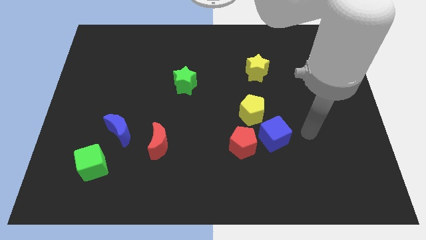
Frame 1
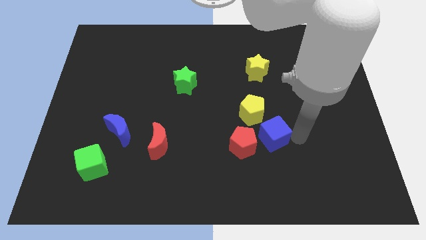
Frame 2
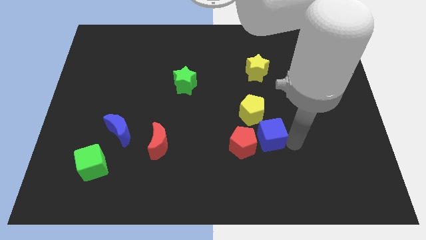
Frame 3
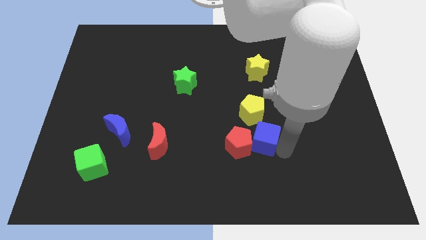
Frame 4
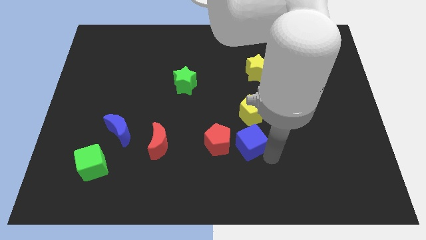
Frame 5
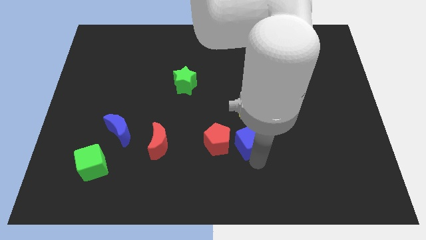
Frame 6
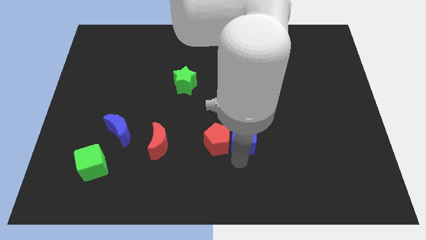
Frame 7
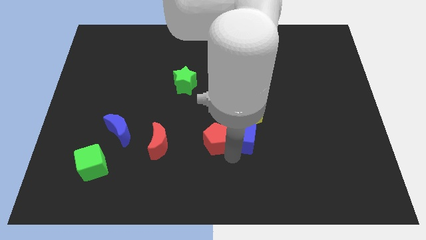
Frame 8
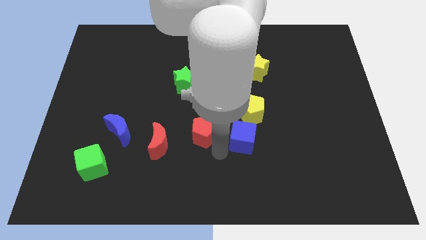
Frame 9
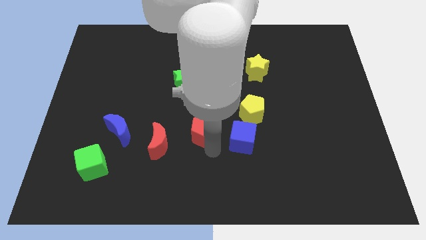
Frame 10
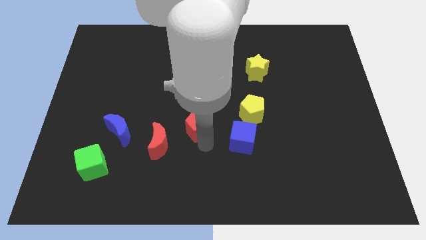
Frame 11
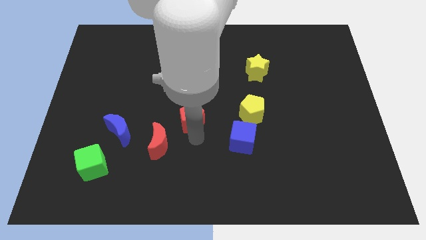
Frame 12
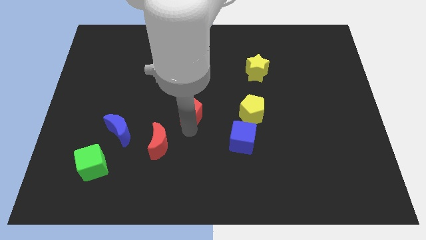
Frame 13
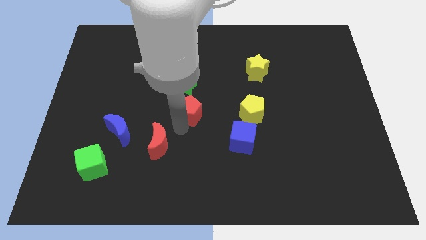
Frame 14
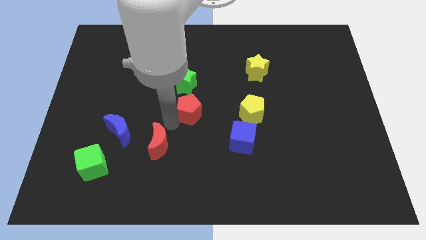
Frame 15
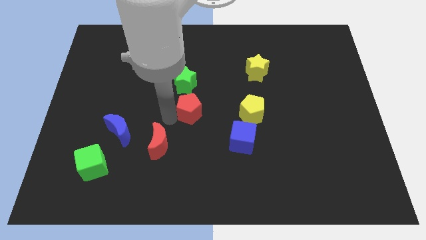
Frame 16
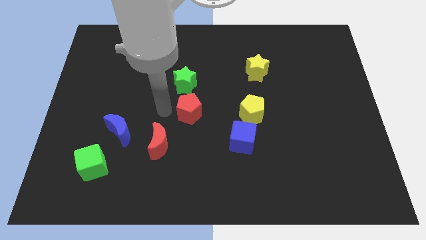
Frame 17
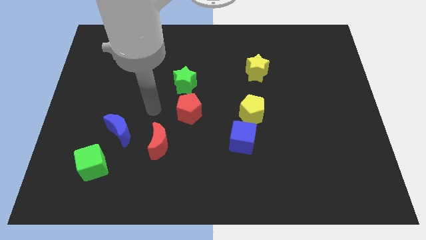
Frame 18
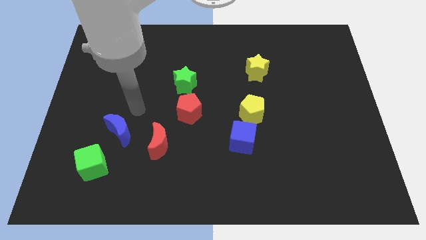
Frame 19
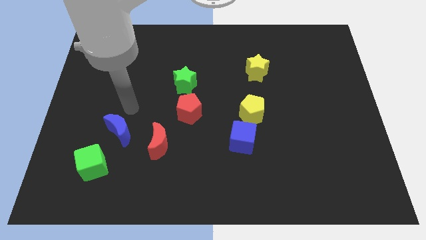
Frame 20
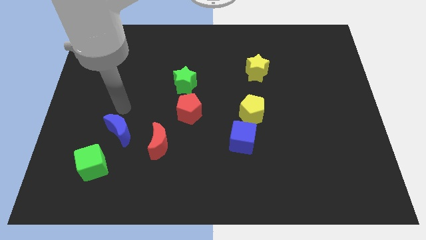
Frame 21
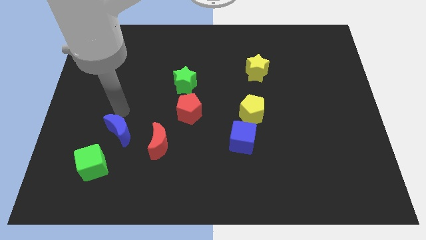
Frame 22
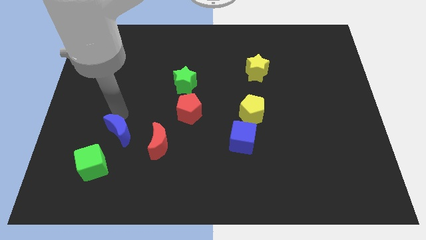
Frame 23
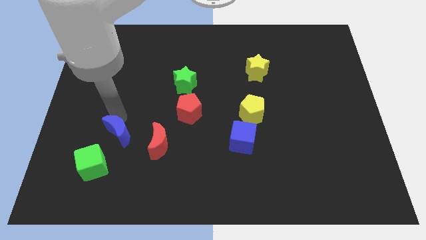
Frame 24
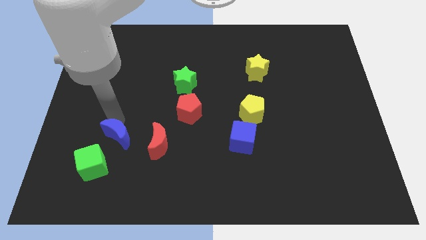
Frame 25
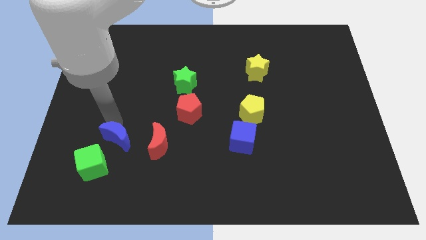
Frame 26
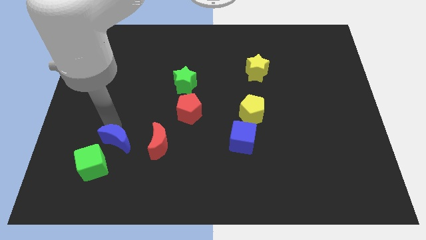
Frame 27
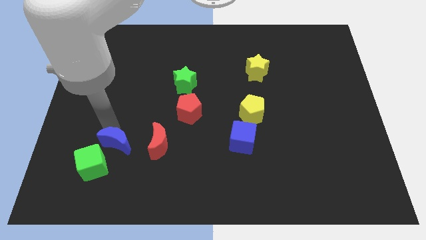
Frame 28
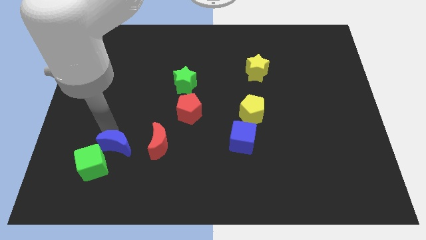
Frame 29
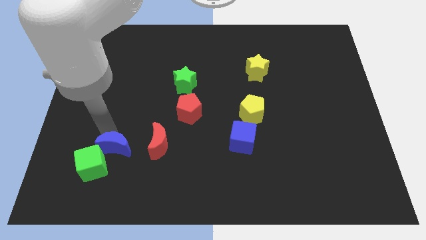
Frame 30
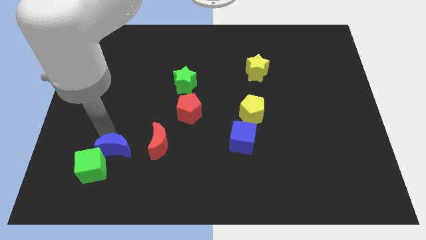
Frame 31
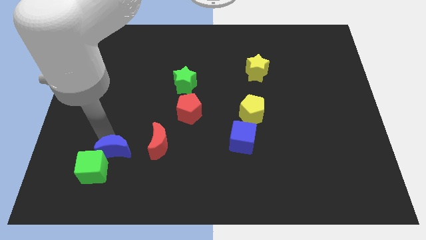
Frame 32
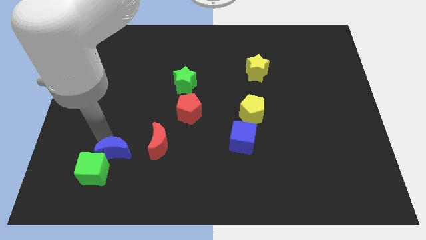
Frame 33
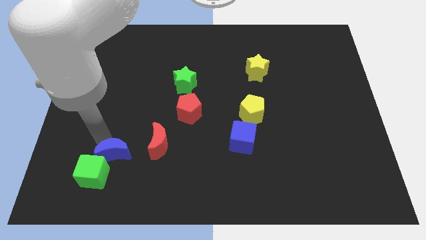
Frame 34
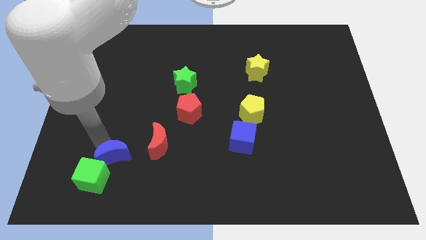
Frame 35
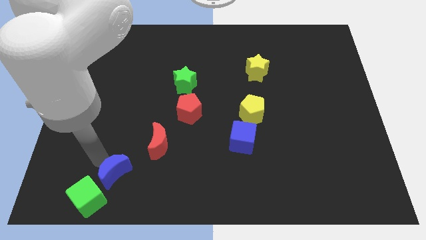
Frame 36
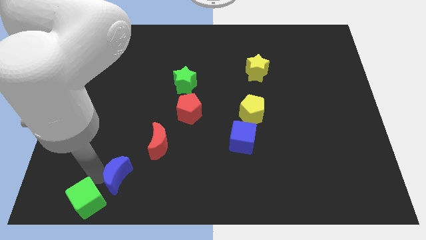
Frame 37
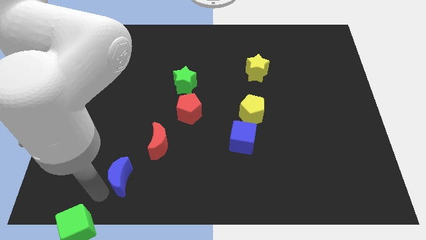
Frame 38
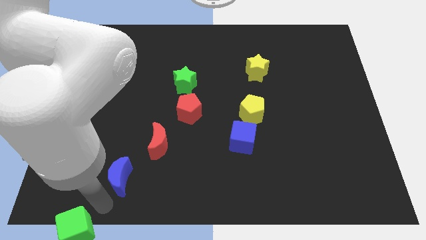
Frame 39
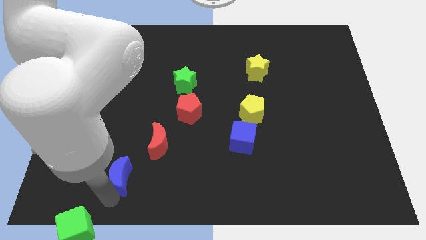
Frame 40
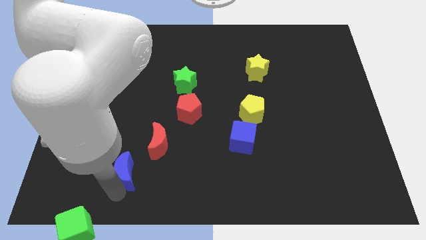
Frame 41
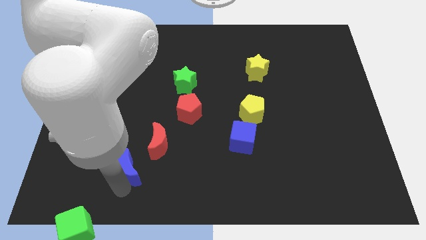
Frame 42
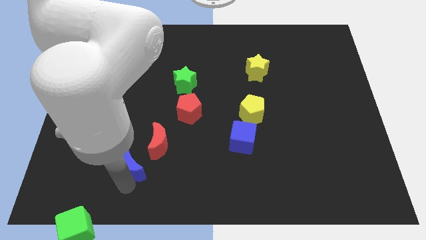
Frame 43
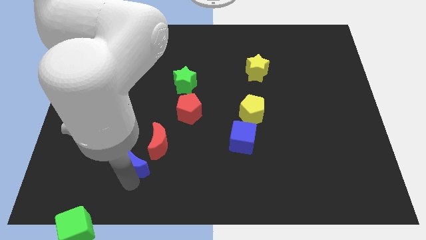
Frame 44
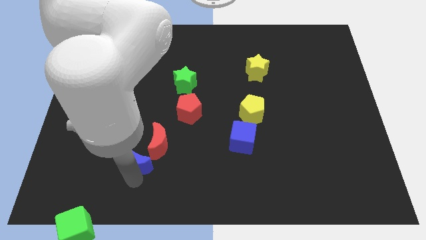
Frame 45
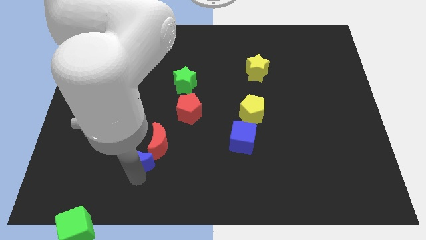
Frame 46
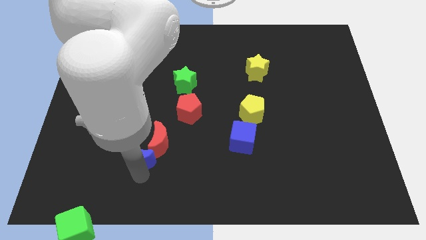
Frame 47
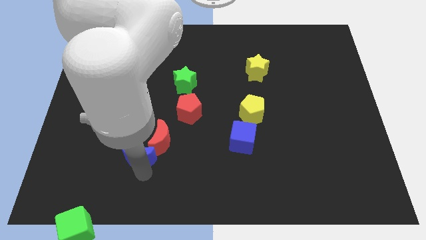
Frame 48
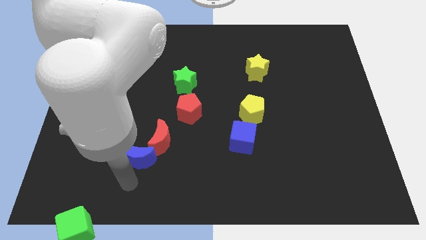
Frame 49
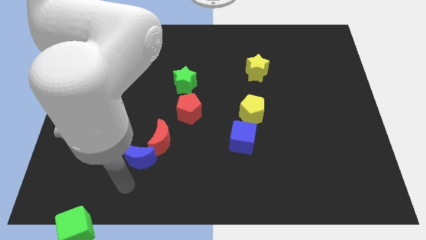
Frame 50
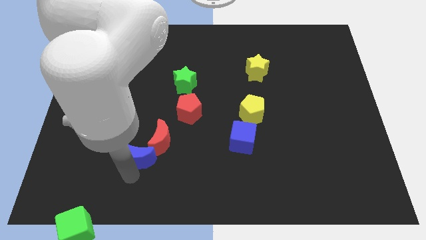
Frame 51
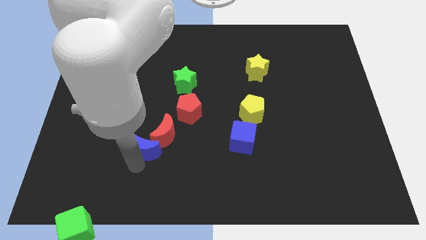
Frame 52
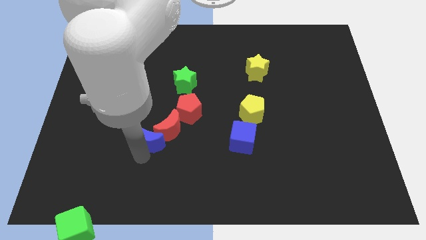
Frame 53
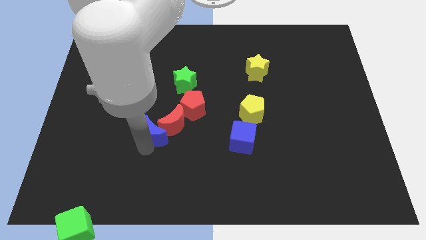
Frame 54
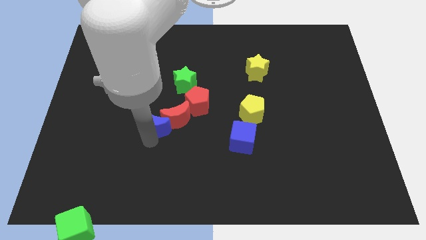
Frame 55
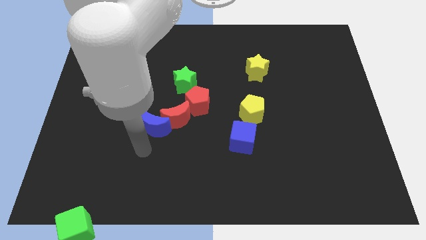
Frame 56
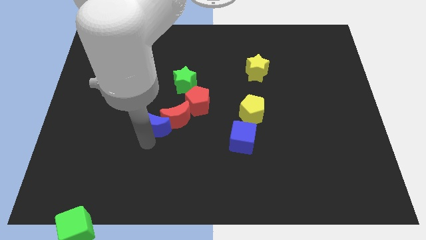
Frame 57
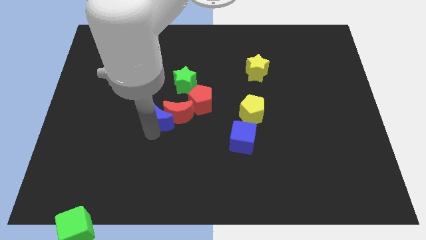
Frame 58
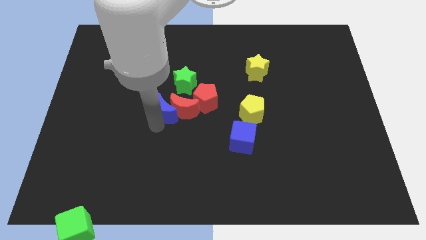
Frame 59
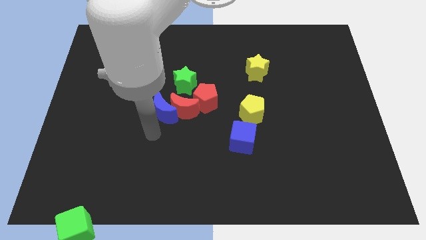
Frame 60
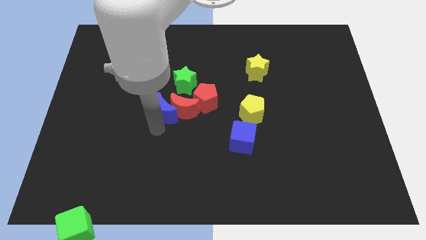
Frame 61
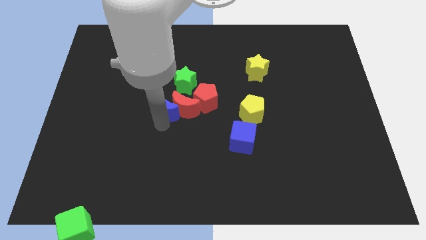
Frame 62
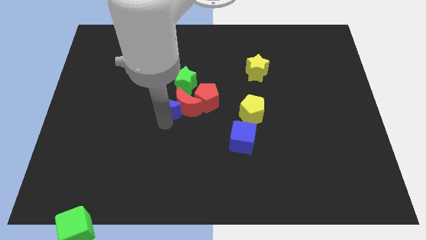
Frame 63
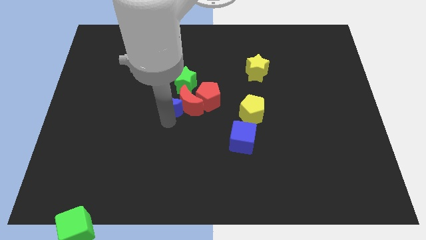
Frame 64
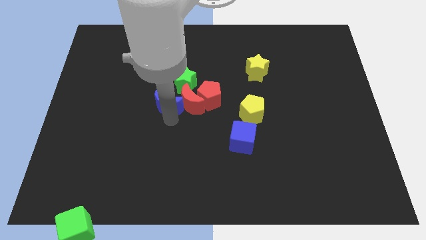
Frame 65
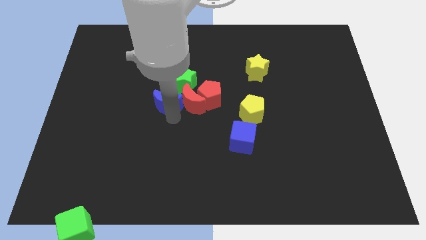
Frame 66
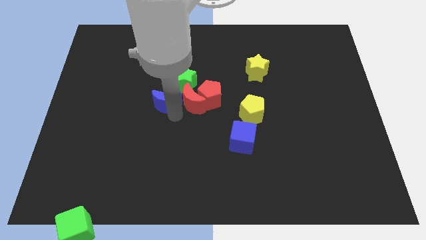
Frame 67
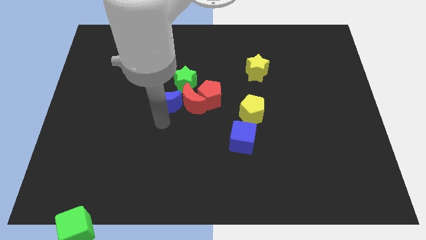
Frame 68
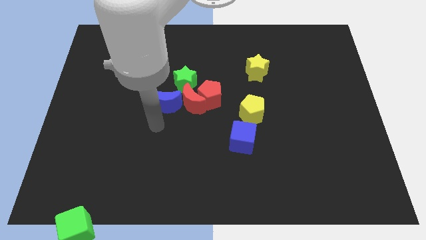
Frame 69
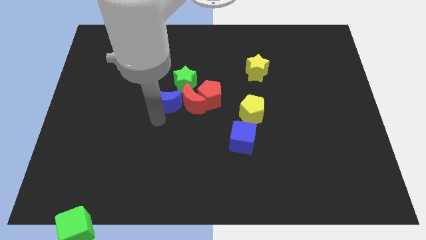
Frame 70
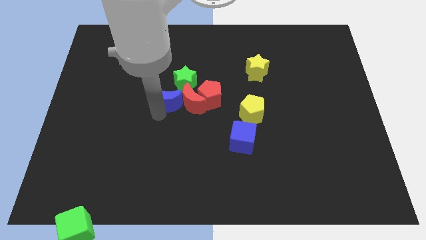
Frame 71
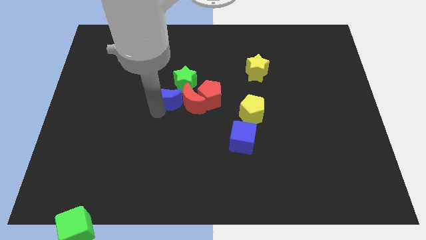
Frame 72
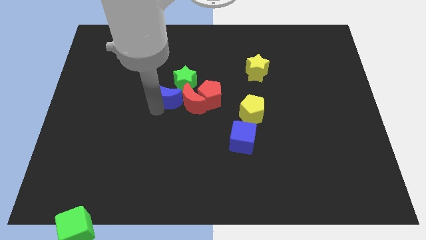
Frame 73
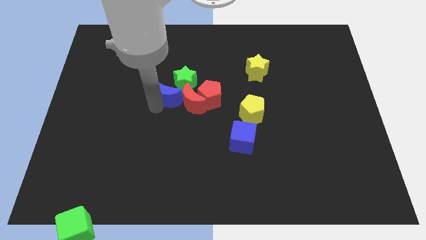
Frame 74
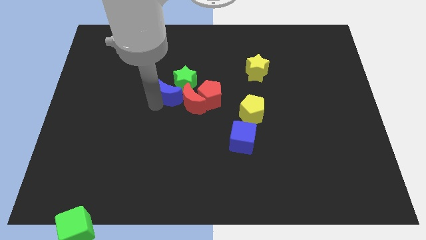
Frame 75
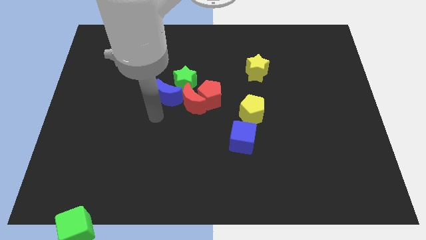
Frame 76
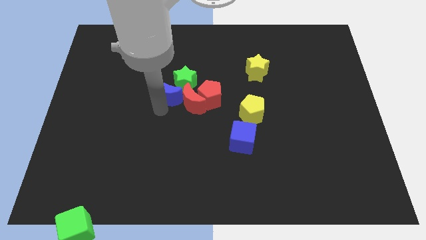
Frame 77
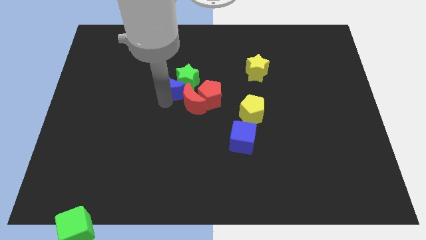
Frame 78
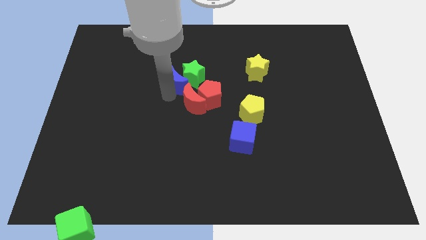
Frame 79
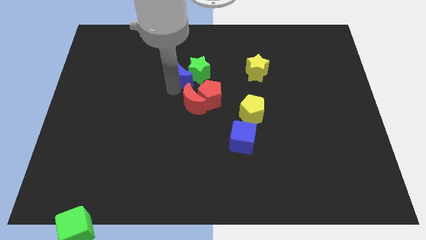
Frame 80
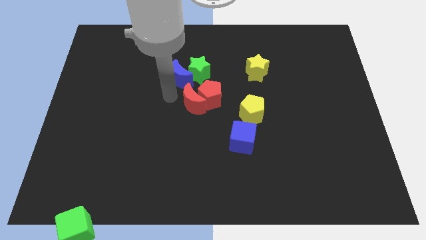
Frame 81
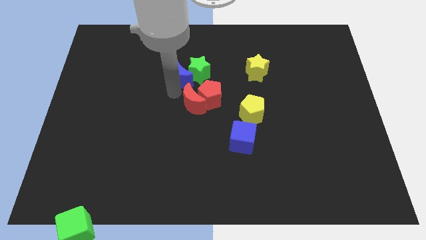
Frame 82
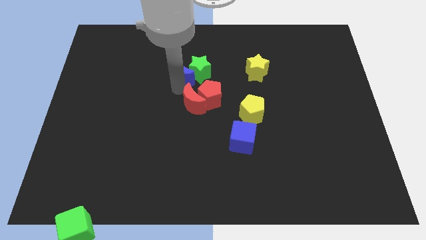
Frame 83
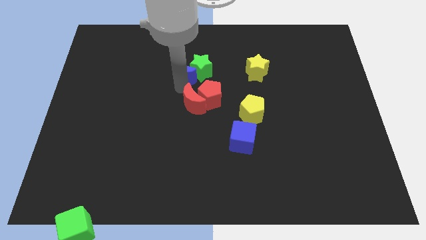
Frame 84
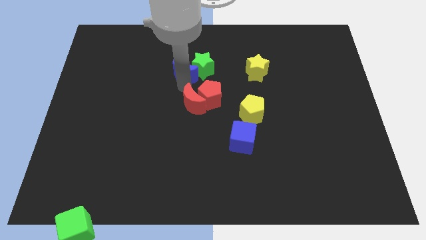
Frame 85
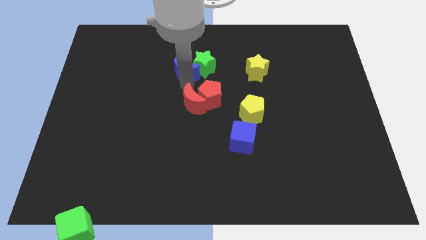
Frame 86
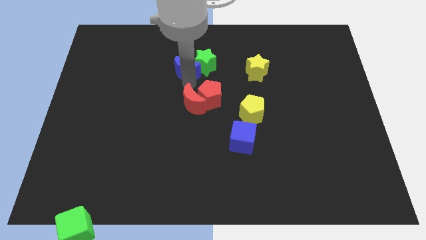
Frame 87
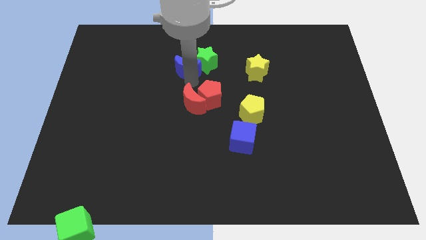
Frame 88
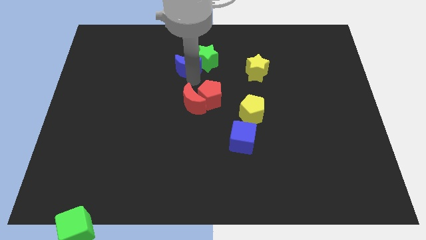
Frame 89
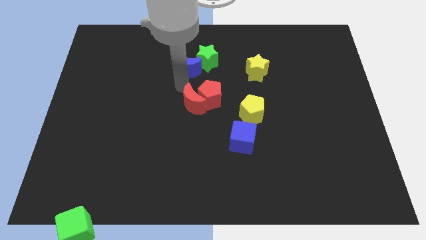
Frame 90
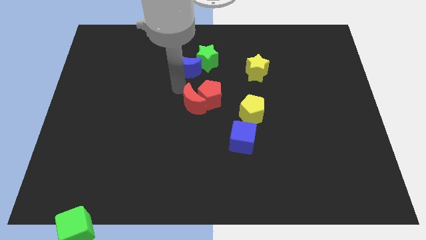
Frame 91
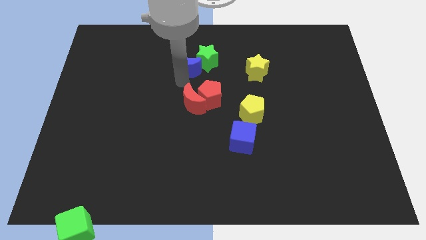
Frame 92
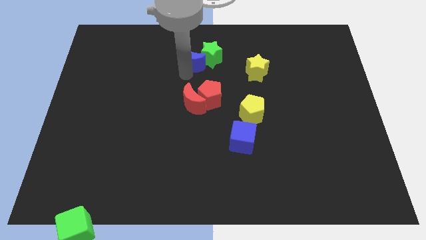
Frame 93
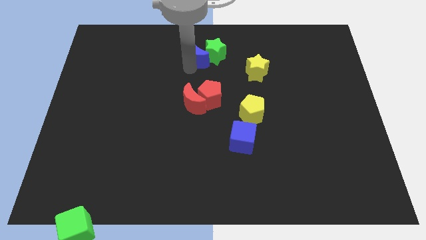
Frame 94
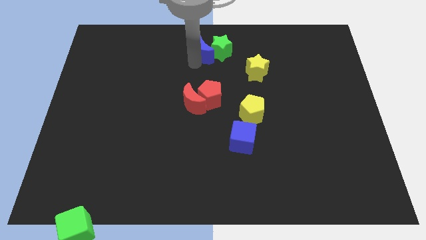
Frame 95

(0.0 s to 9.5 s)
slide the blue moon to the top side
